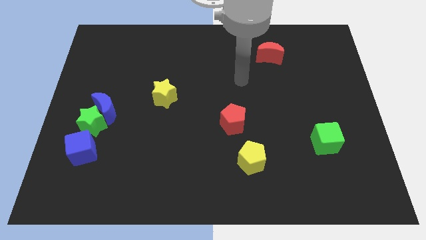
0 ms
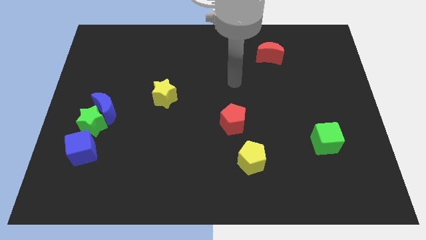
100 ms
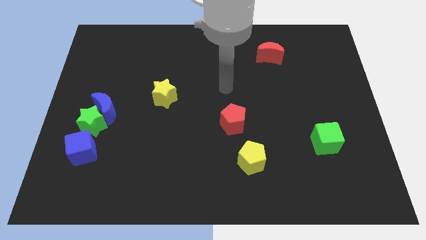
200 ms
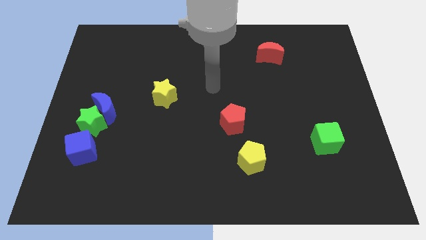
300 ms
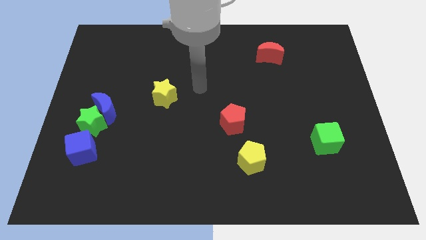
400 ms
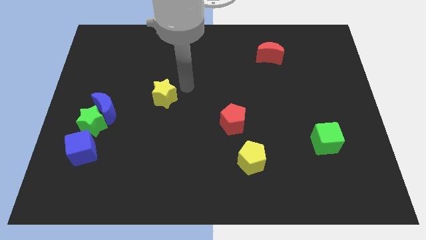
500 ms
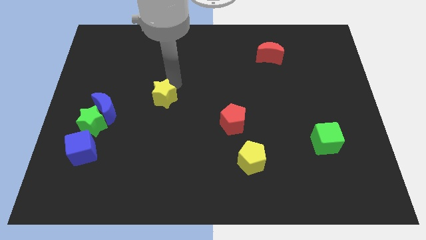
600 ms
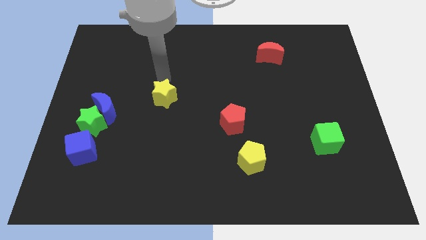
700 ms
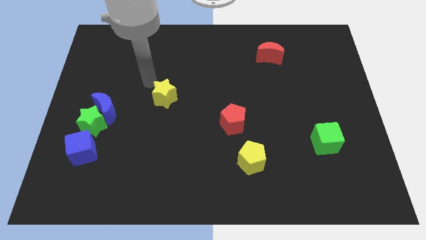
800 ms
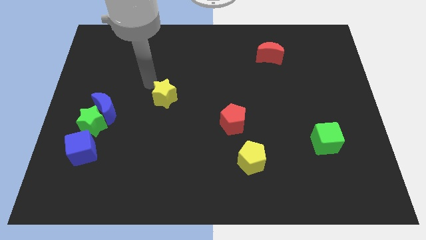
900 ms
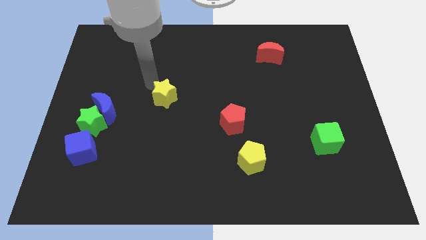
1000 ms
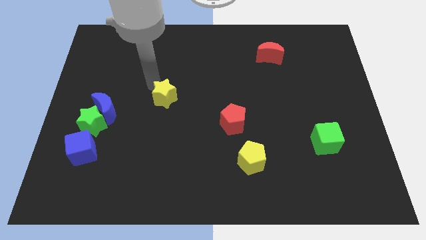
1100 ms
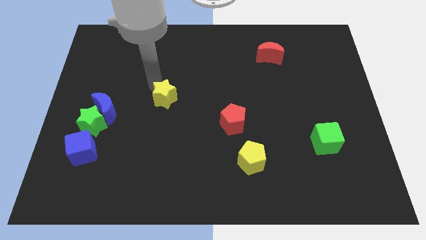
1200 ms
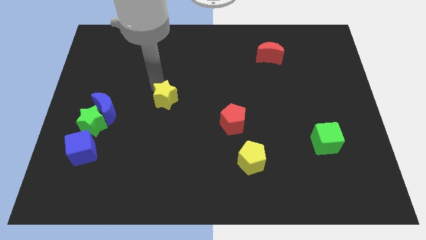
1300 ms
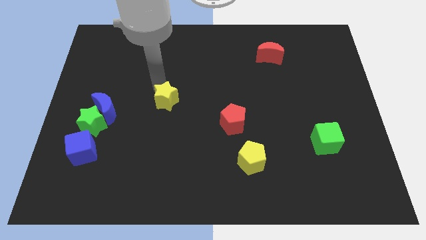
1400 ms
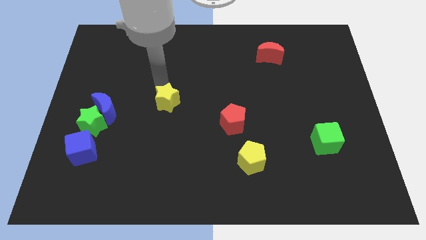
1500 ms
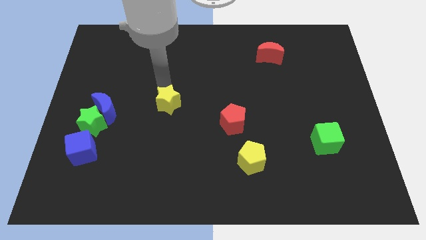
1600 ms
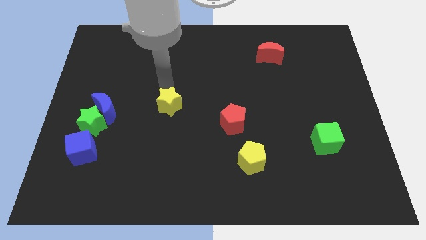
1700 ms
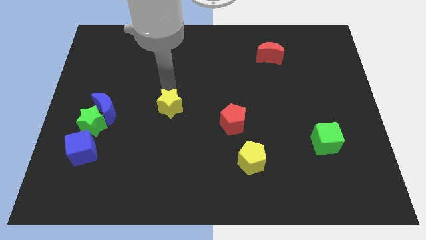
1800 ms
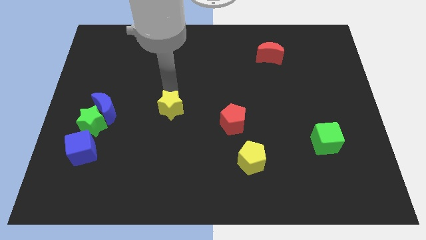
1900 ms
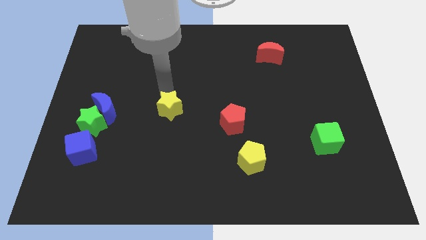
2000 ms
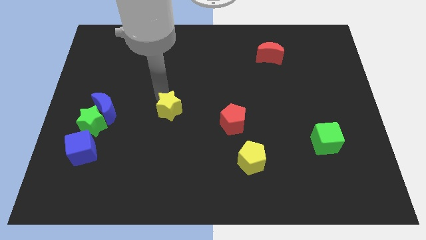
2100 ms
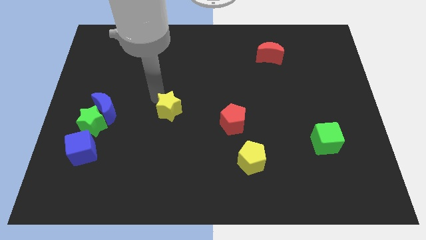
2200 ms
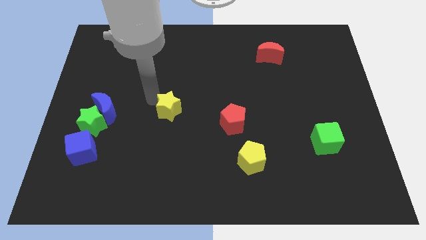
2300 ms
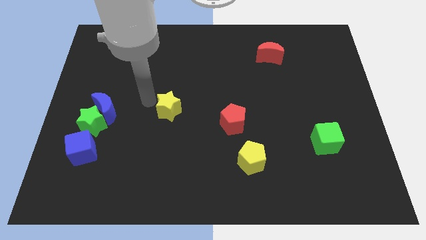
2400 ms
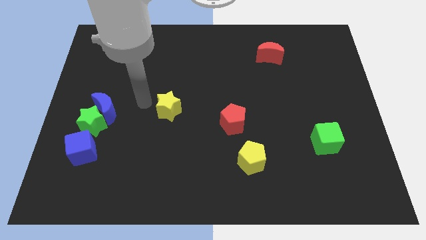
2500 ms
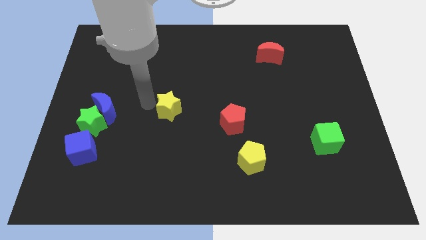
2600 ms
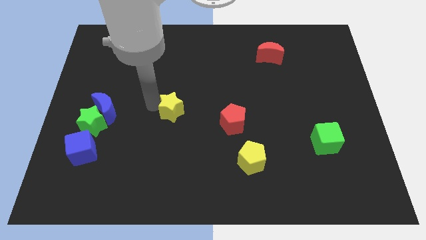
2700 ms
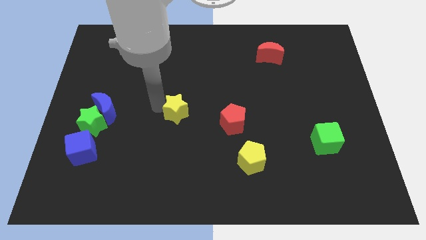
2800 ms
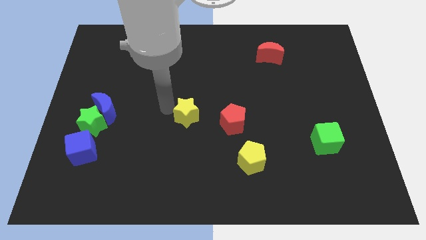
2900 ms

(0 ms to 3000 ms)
slightly slide the yellow star downwards and then right

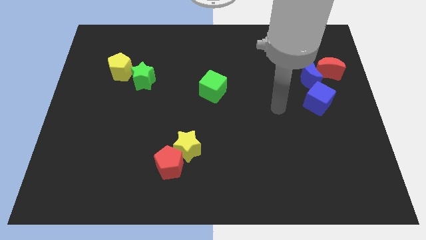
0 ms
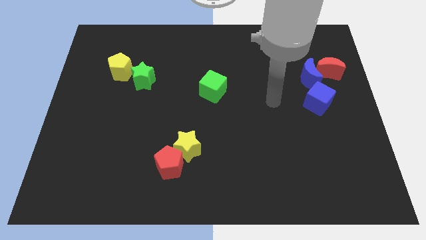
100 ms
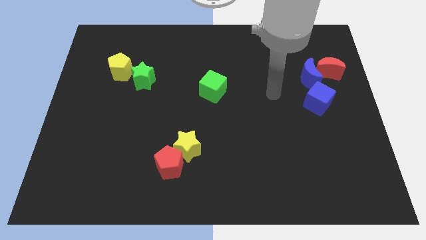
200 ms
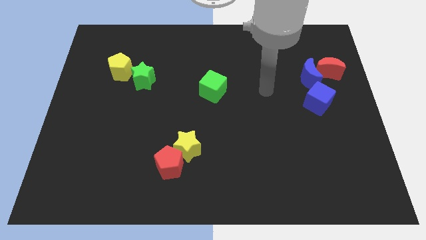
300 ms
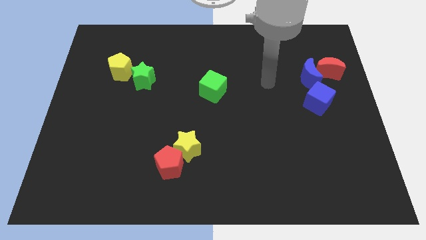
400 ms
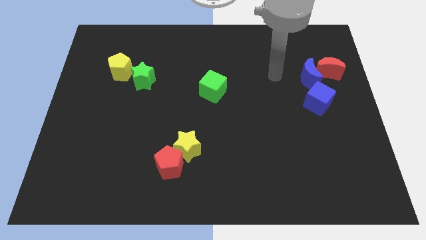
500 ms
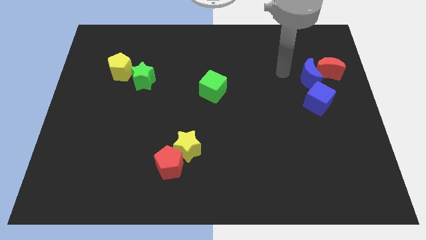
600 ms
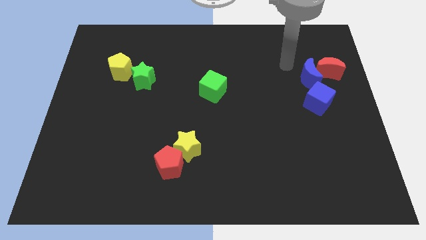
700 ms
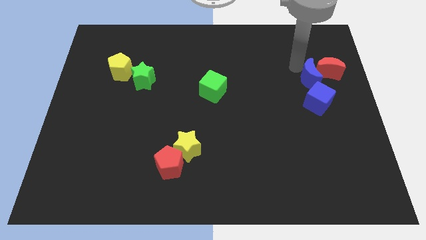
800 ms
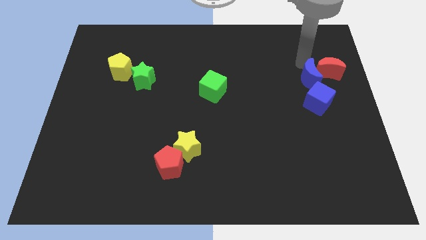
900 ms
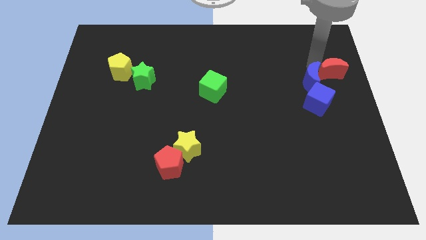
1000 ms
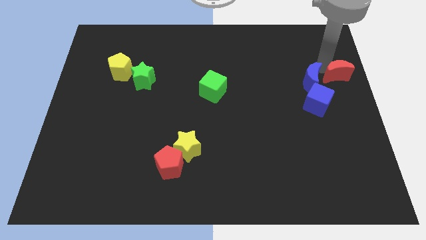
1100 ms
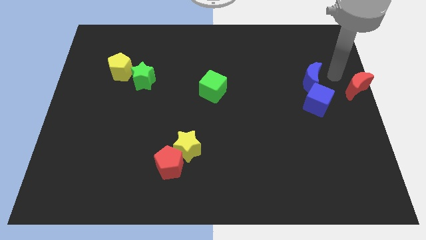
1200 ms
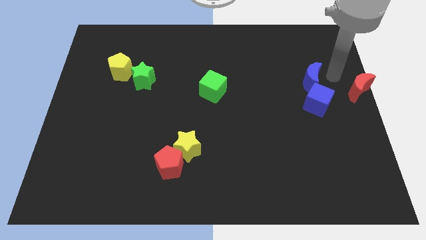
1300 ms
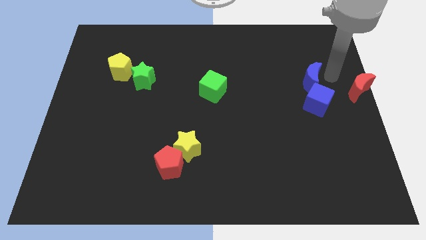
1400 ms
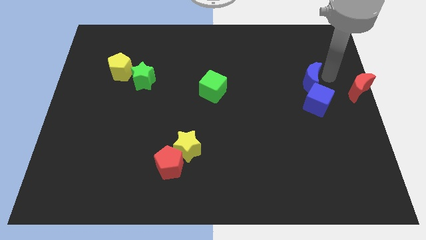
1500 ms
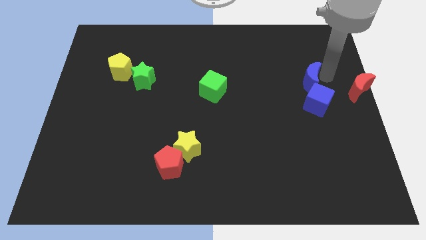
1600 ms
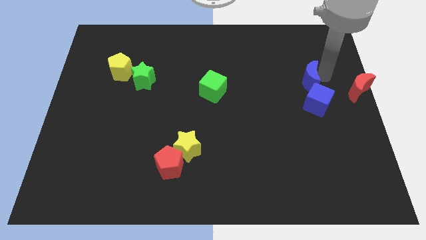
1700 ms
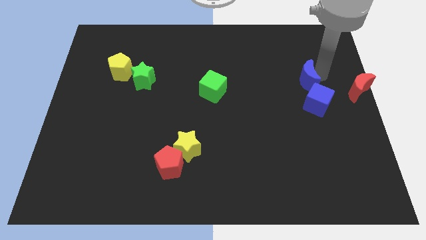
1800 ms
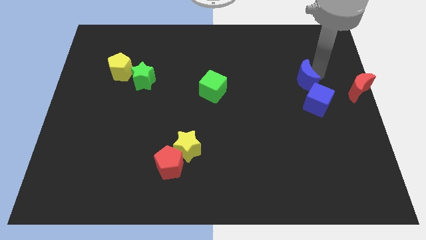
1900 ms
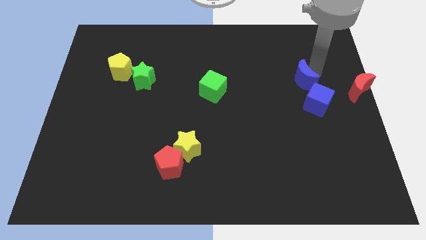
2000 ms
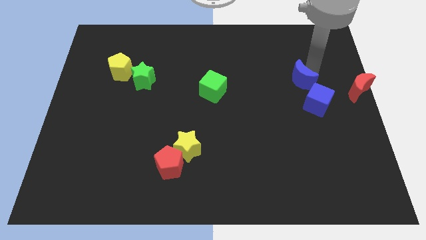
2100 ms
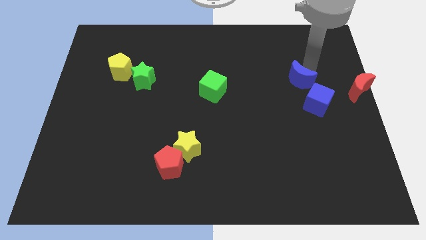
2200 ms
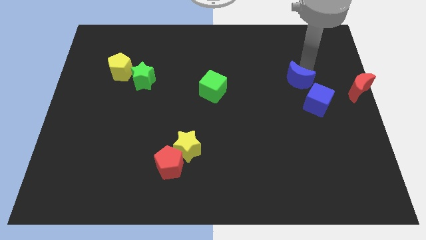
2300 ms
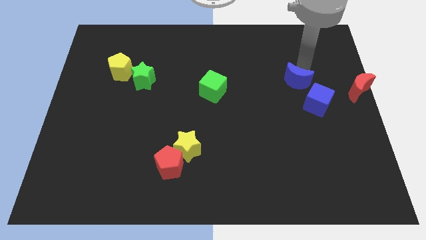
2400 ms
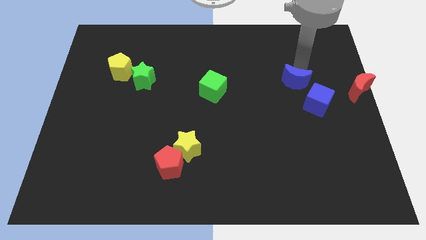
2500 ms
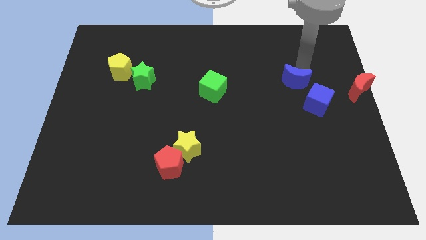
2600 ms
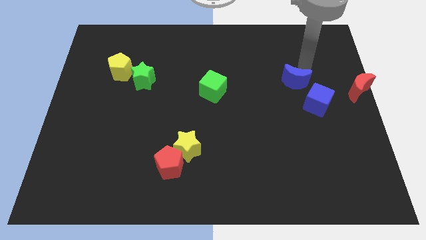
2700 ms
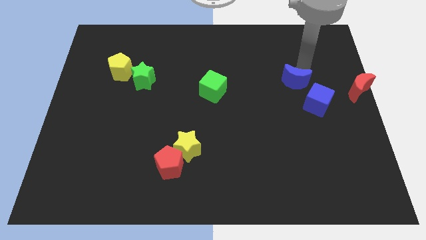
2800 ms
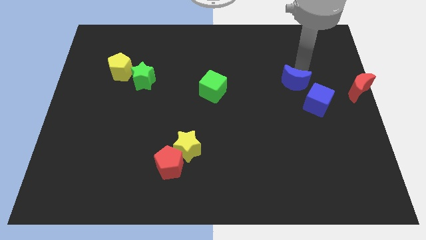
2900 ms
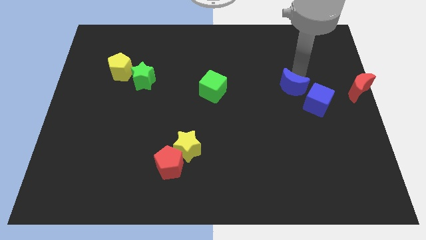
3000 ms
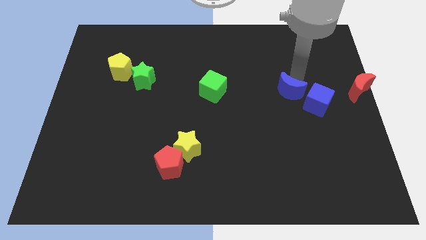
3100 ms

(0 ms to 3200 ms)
move the blue moon downwards and left diagonally slightly

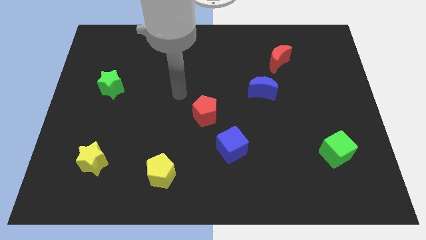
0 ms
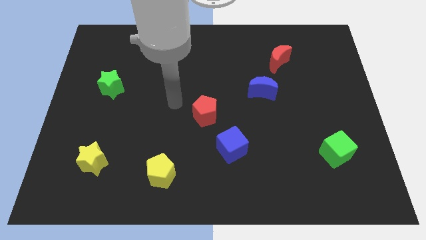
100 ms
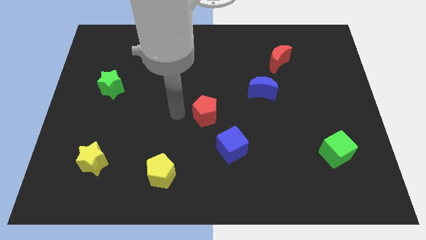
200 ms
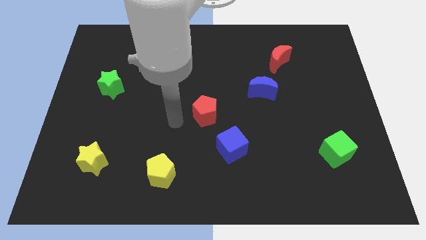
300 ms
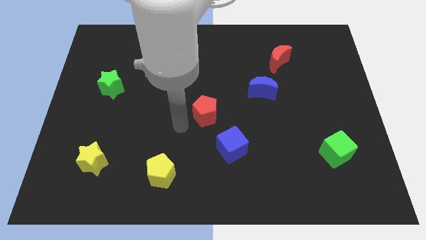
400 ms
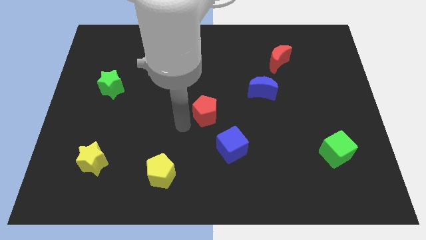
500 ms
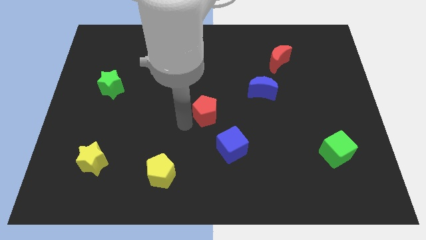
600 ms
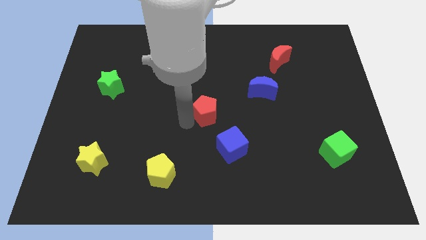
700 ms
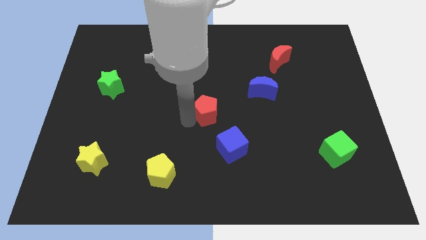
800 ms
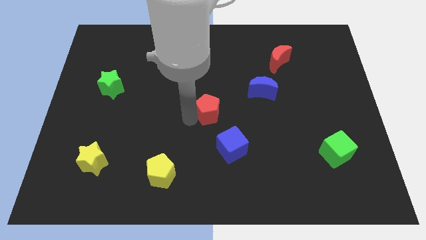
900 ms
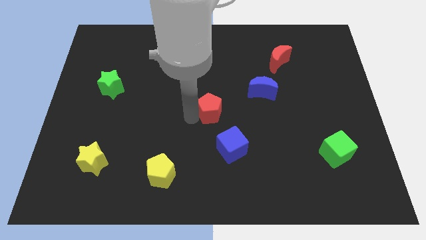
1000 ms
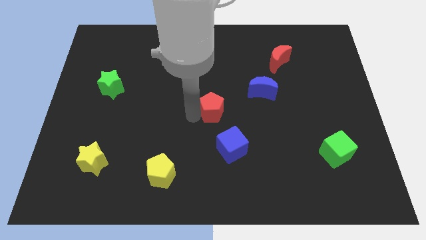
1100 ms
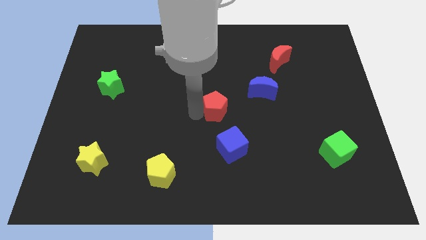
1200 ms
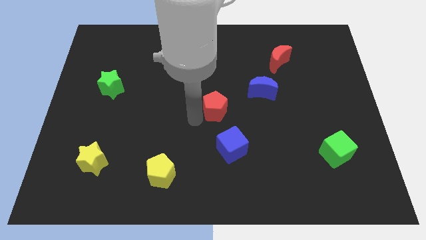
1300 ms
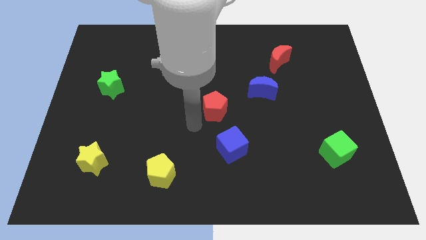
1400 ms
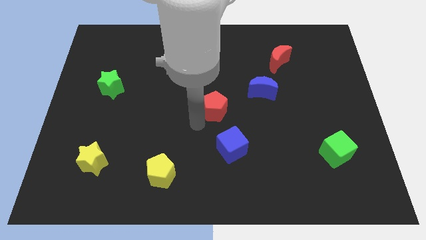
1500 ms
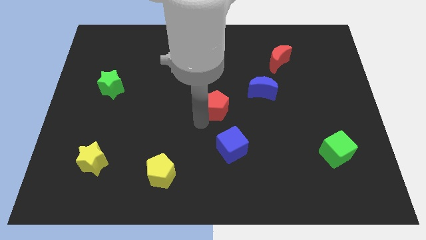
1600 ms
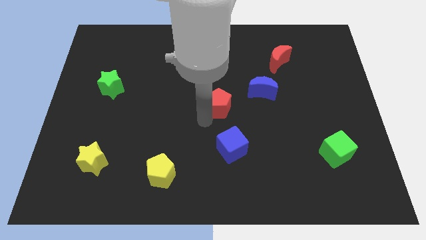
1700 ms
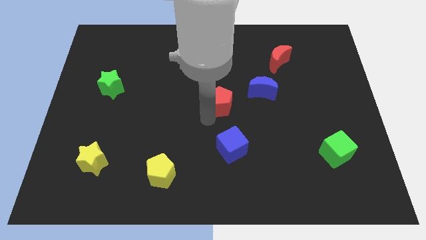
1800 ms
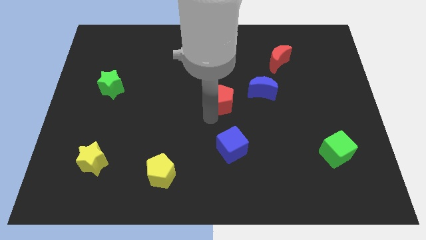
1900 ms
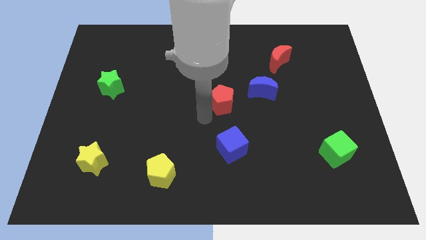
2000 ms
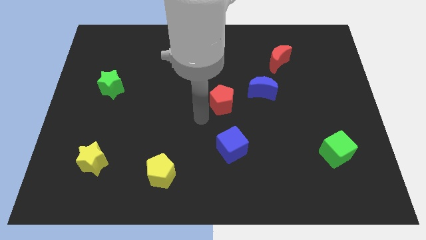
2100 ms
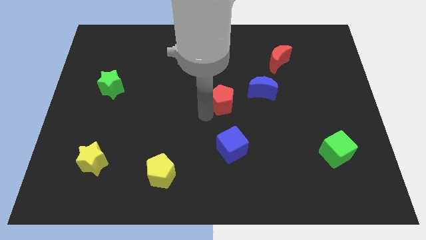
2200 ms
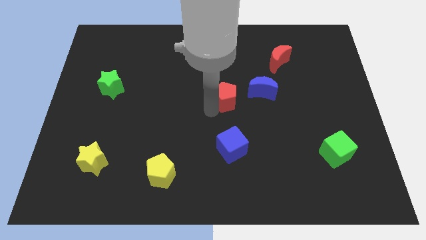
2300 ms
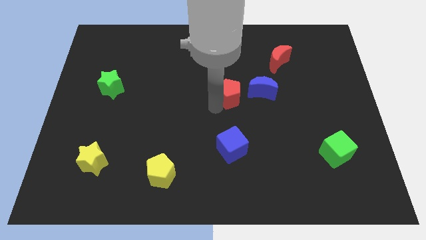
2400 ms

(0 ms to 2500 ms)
move the red pentagon upwards and right a little
